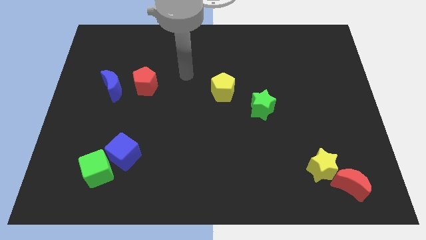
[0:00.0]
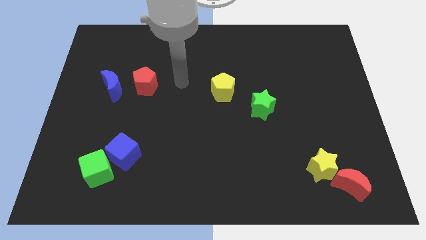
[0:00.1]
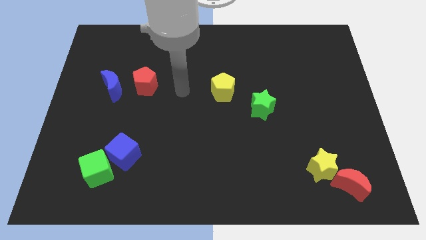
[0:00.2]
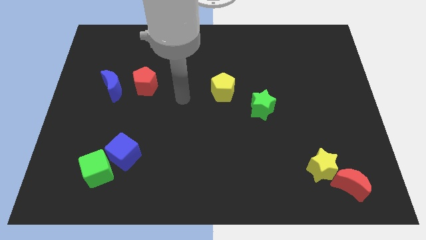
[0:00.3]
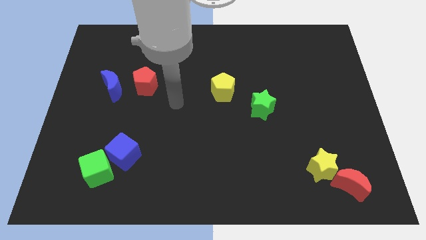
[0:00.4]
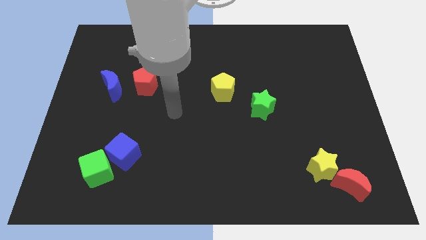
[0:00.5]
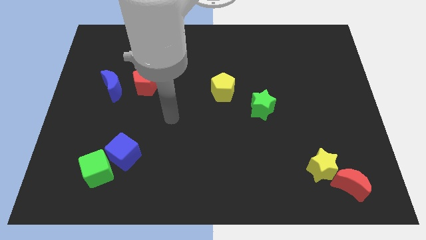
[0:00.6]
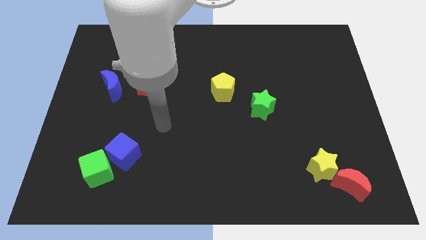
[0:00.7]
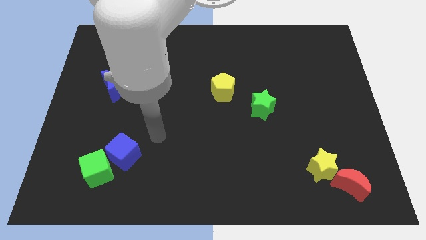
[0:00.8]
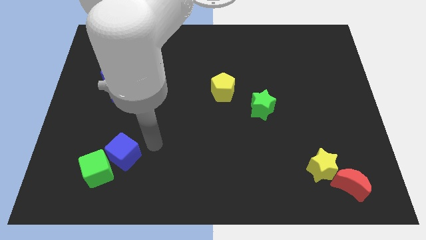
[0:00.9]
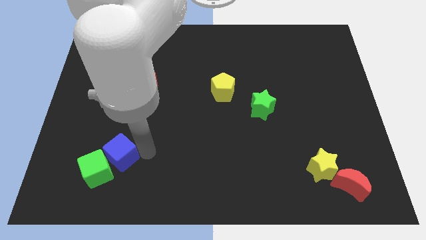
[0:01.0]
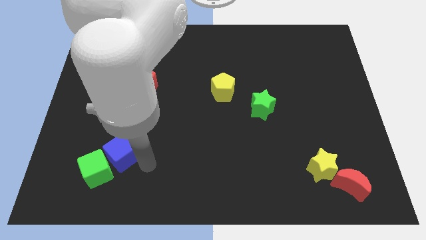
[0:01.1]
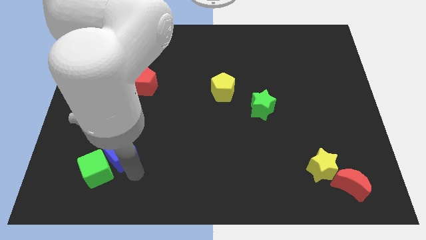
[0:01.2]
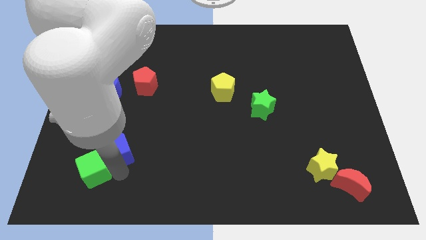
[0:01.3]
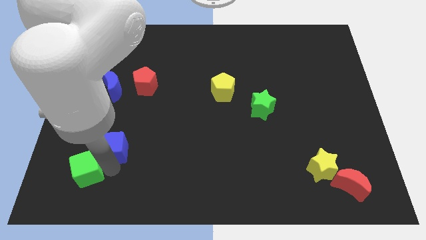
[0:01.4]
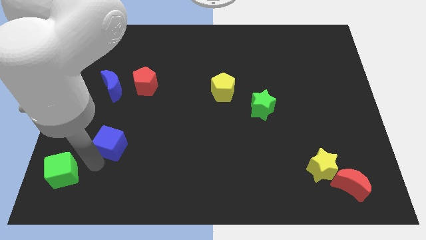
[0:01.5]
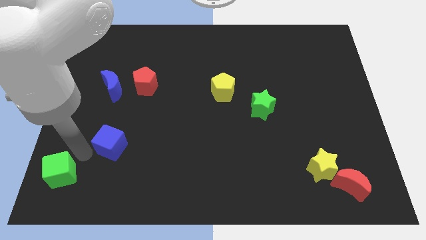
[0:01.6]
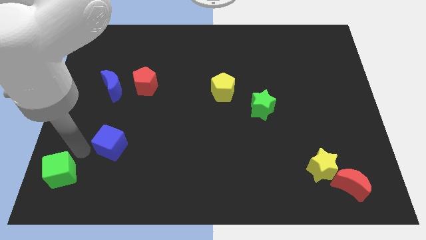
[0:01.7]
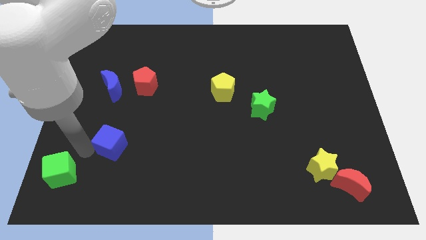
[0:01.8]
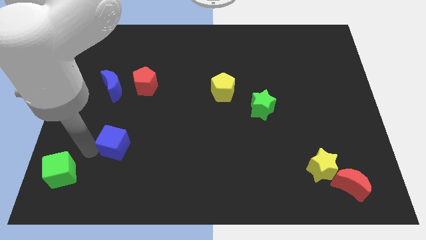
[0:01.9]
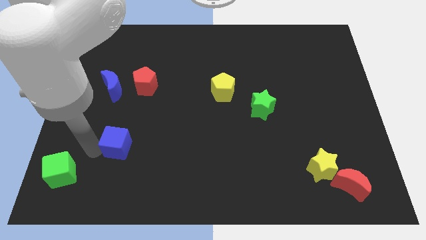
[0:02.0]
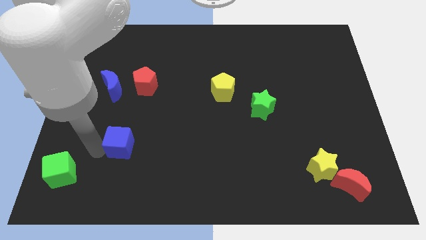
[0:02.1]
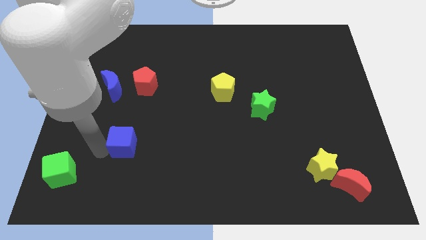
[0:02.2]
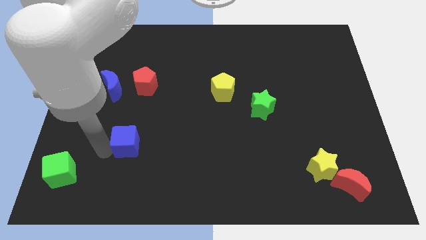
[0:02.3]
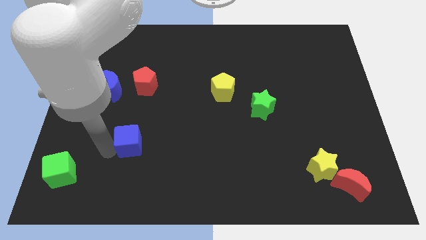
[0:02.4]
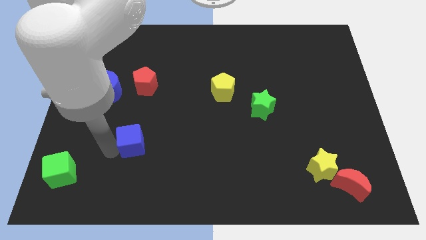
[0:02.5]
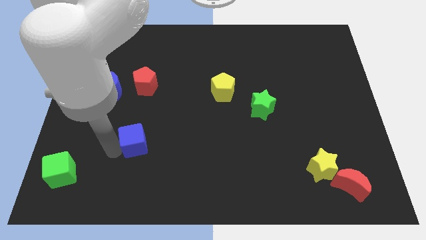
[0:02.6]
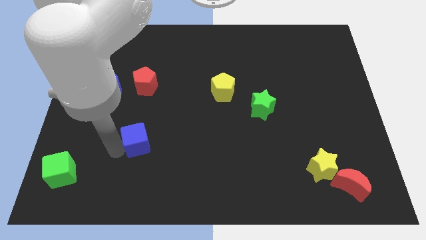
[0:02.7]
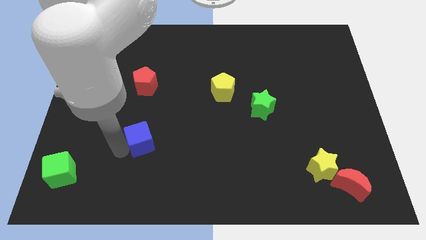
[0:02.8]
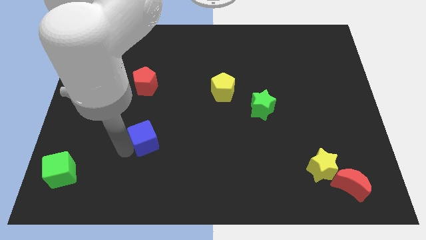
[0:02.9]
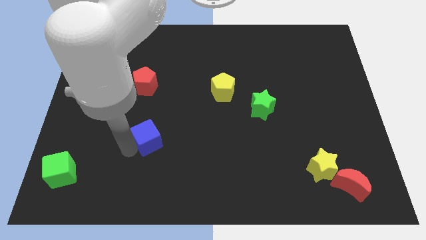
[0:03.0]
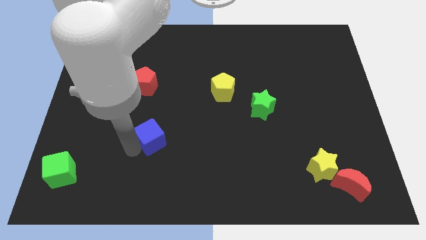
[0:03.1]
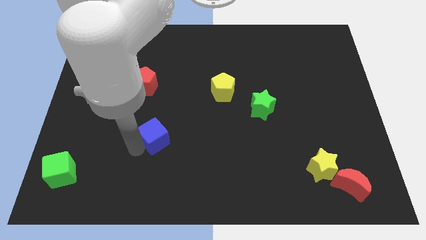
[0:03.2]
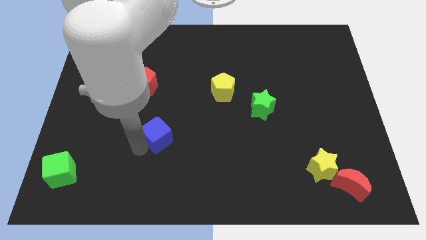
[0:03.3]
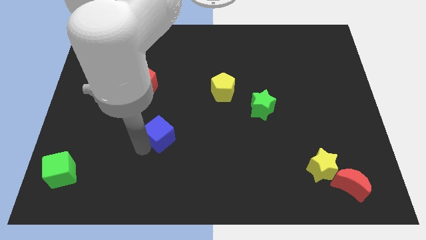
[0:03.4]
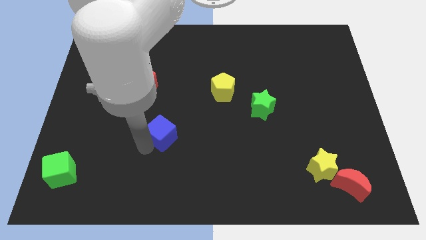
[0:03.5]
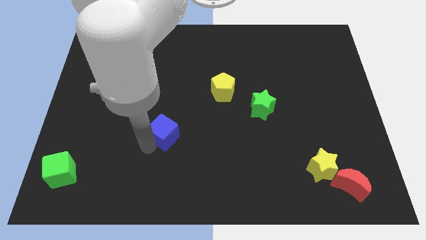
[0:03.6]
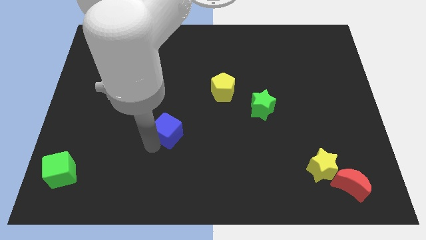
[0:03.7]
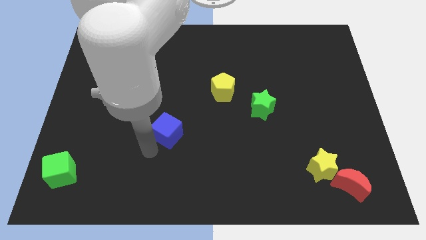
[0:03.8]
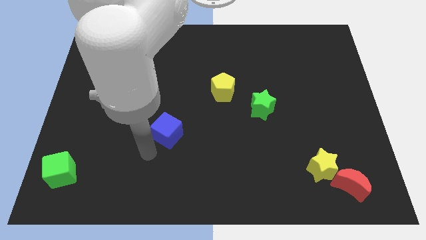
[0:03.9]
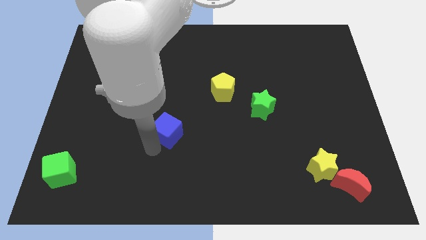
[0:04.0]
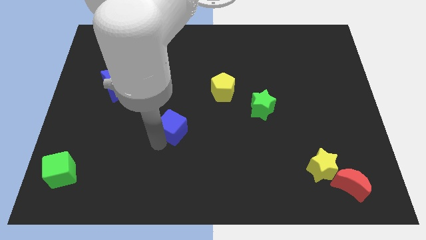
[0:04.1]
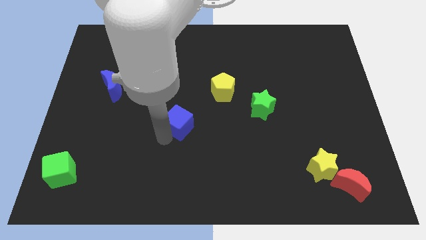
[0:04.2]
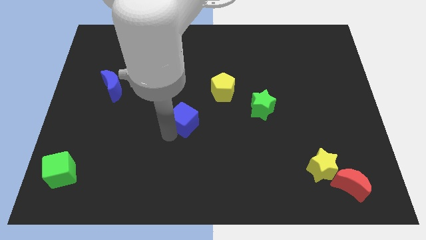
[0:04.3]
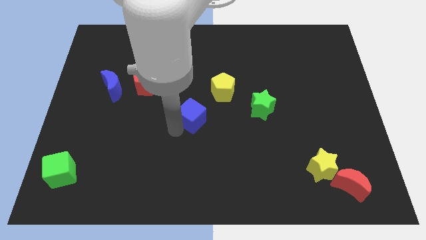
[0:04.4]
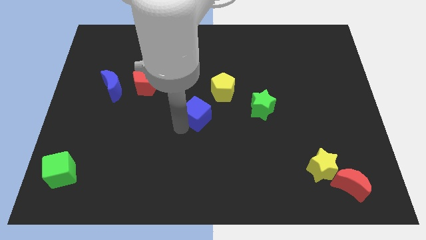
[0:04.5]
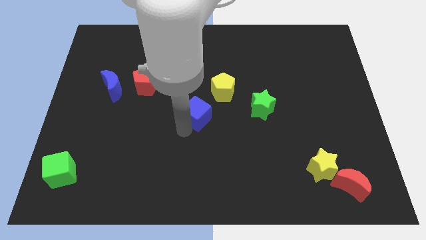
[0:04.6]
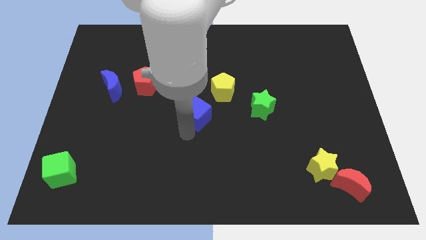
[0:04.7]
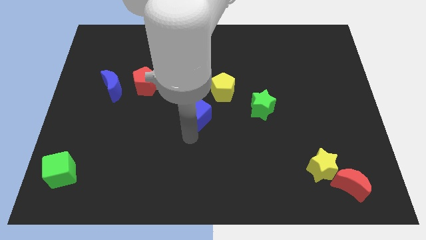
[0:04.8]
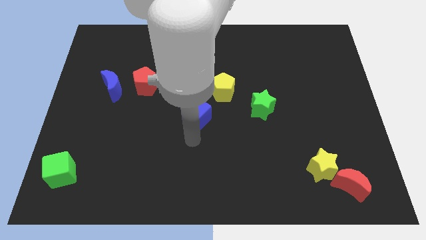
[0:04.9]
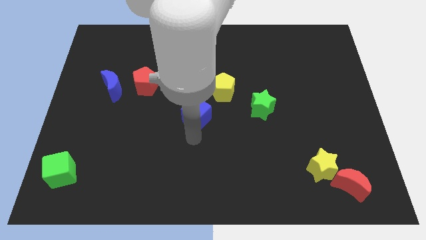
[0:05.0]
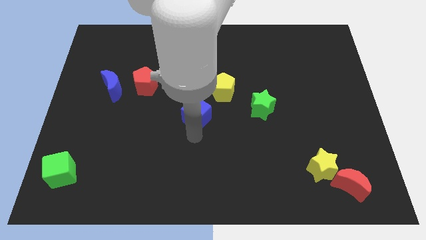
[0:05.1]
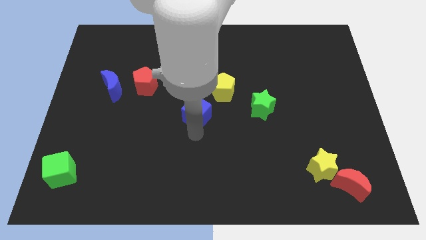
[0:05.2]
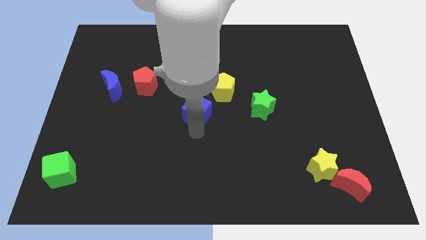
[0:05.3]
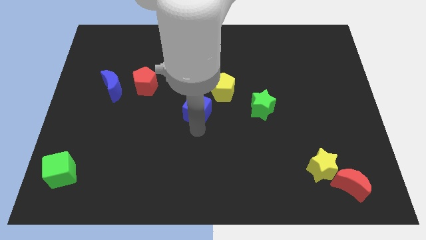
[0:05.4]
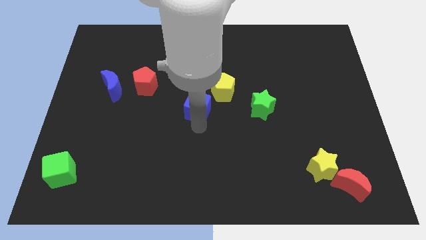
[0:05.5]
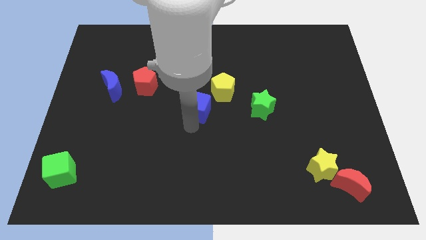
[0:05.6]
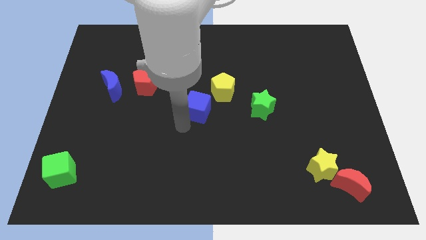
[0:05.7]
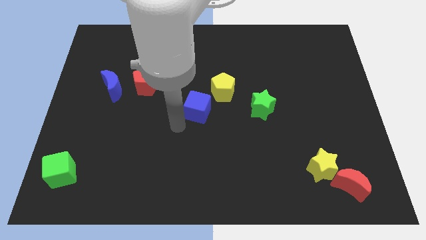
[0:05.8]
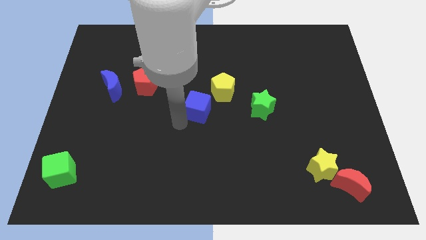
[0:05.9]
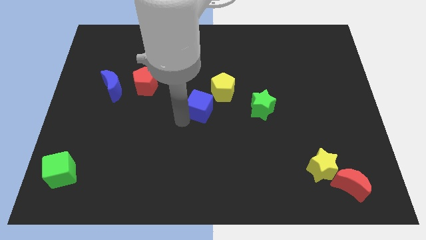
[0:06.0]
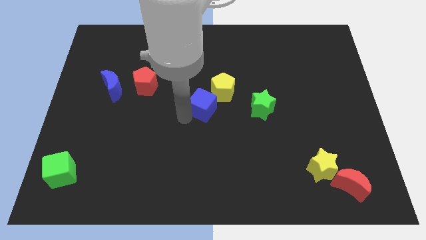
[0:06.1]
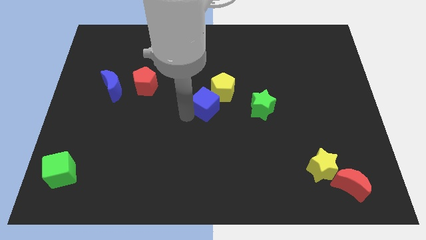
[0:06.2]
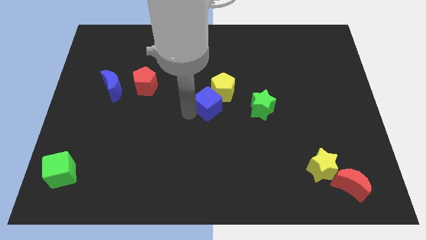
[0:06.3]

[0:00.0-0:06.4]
put the blue cube next to the yellow pentagon

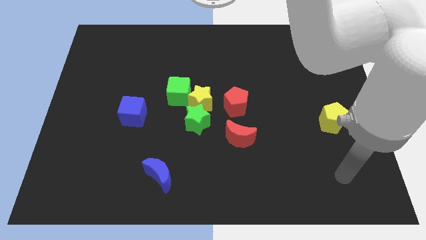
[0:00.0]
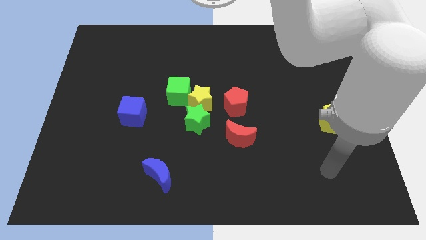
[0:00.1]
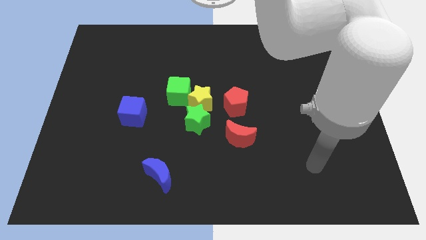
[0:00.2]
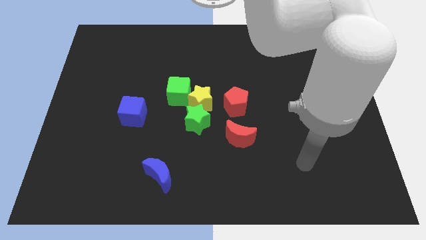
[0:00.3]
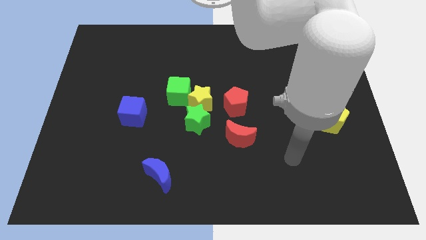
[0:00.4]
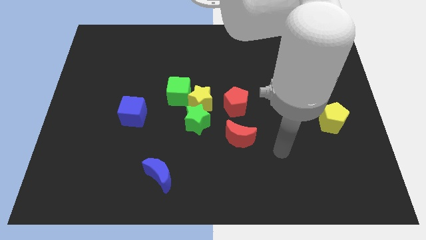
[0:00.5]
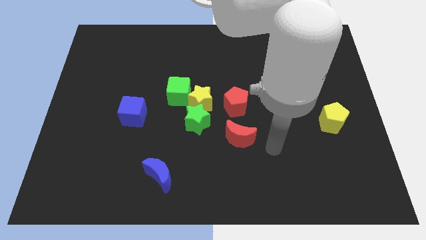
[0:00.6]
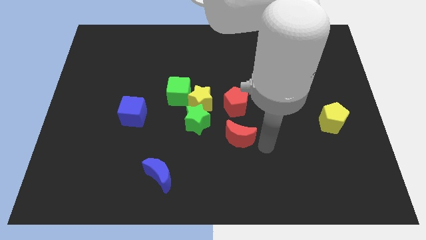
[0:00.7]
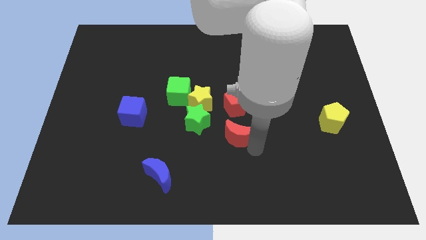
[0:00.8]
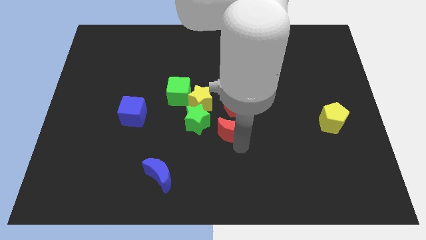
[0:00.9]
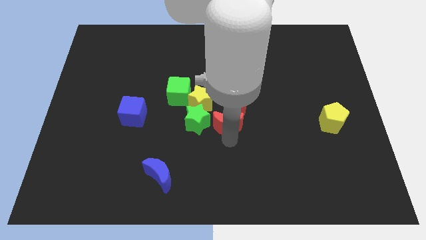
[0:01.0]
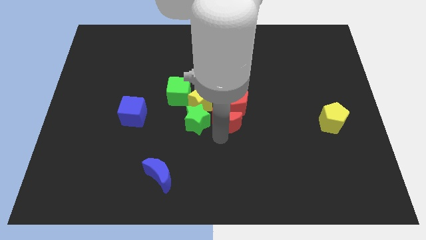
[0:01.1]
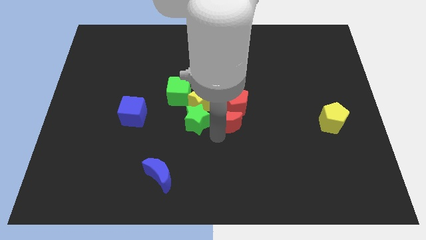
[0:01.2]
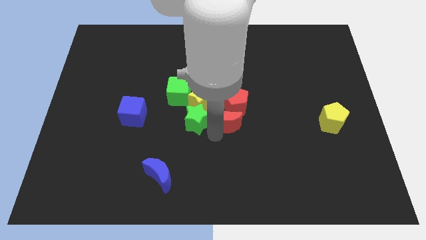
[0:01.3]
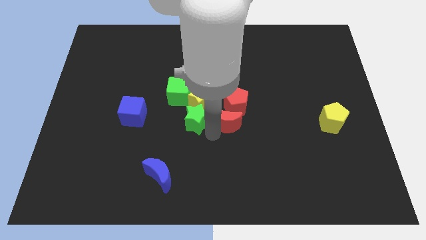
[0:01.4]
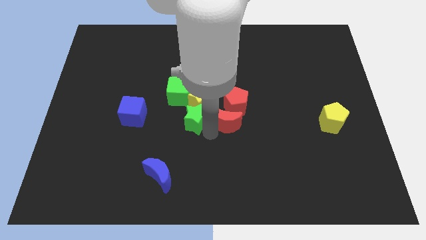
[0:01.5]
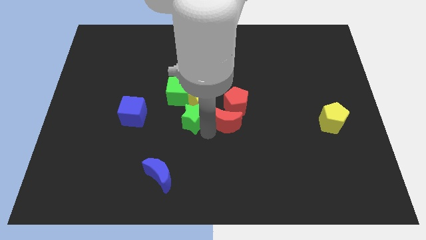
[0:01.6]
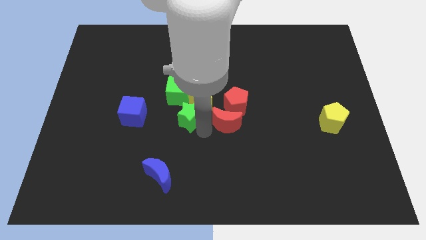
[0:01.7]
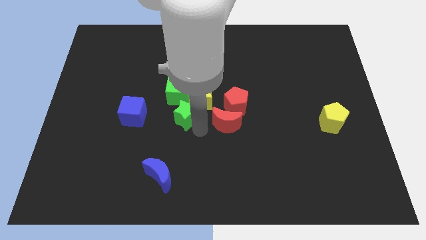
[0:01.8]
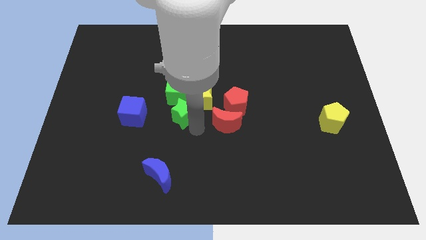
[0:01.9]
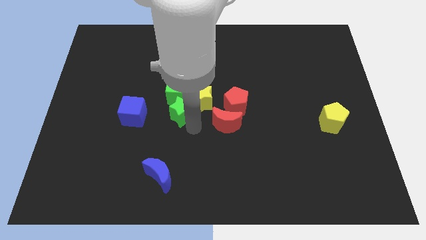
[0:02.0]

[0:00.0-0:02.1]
slide the green star close to the green cube
